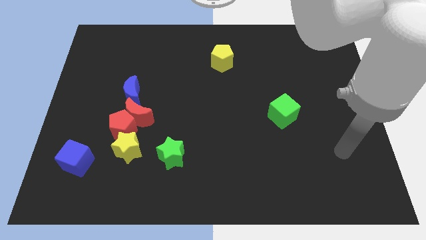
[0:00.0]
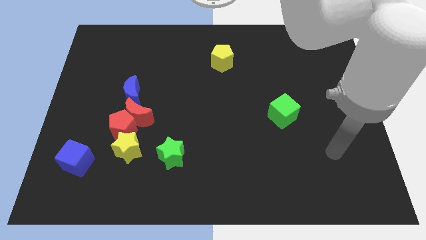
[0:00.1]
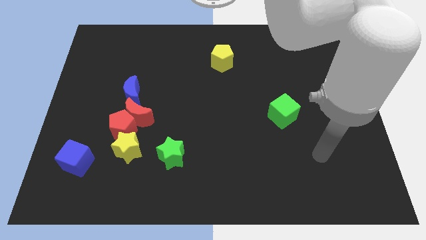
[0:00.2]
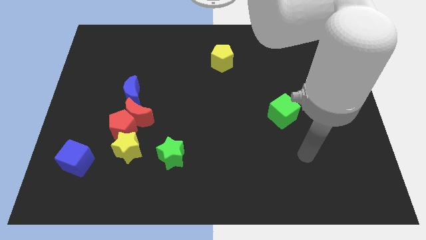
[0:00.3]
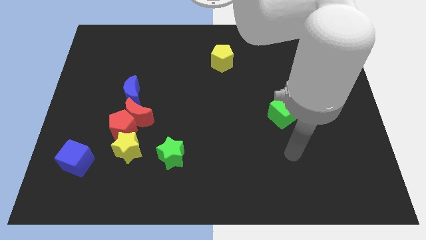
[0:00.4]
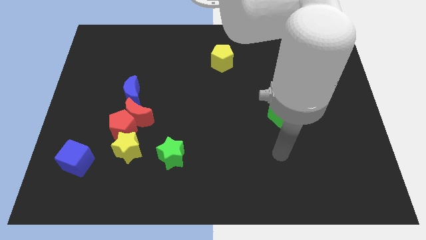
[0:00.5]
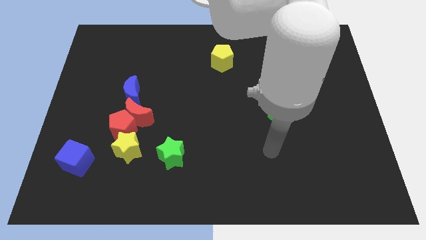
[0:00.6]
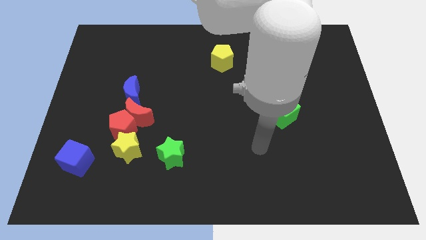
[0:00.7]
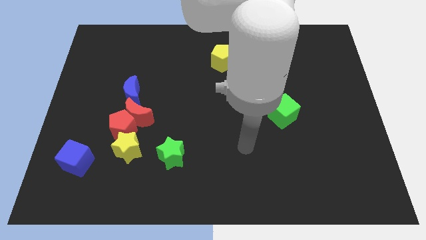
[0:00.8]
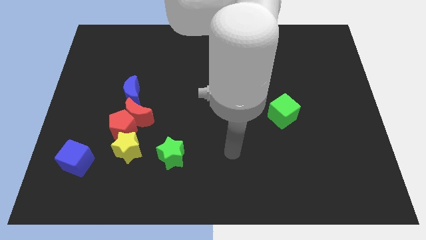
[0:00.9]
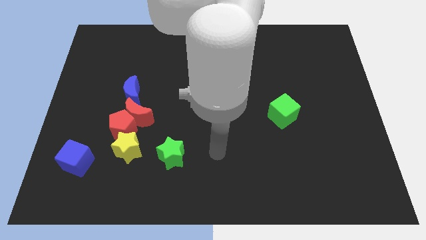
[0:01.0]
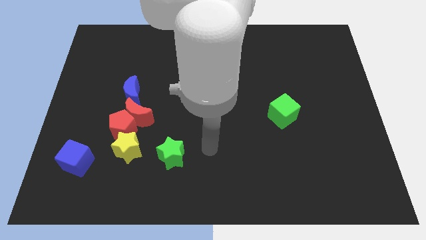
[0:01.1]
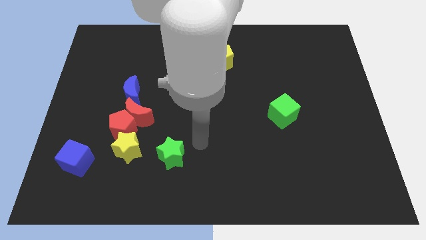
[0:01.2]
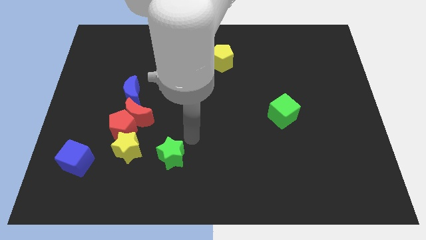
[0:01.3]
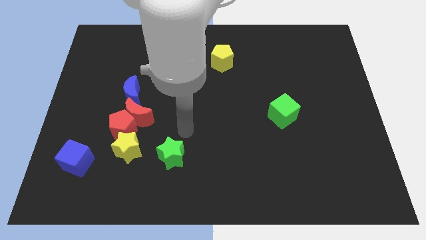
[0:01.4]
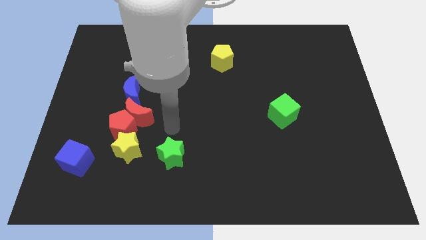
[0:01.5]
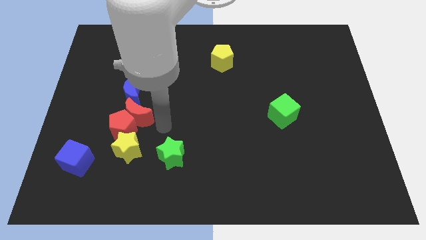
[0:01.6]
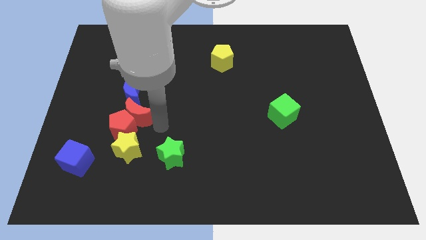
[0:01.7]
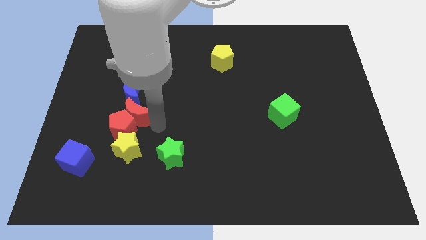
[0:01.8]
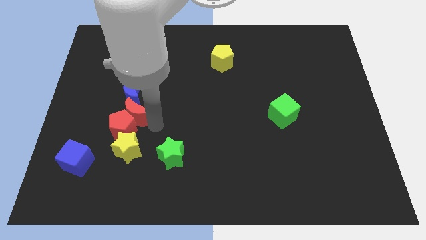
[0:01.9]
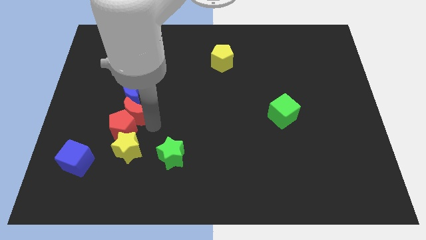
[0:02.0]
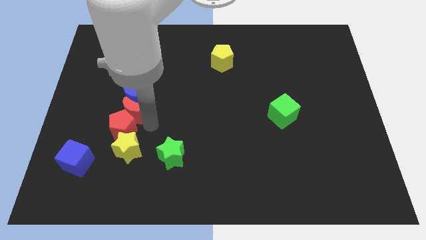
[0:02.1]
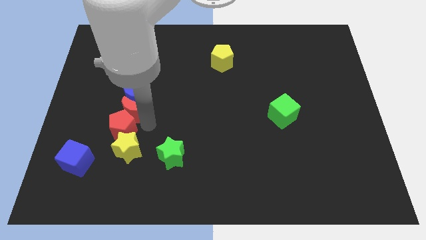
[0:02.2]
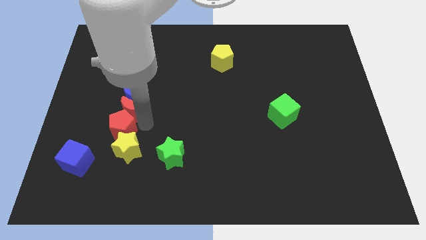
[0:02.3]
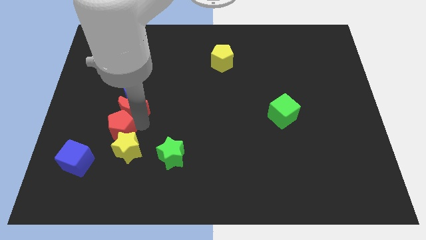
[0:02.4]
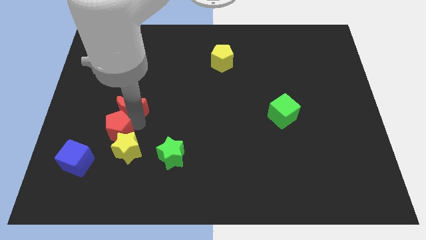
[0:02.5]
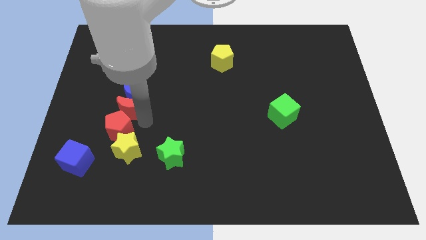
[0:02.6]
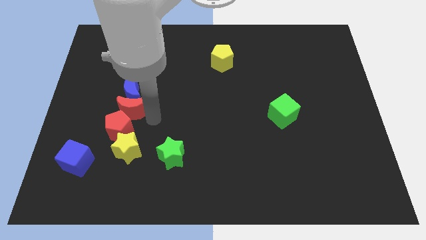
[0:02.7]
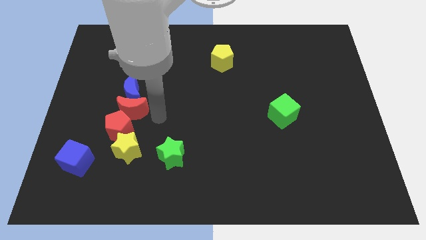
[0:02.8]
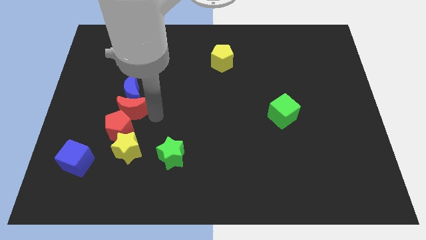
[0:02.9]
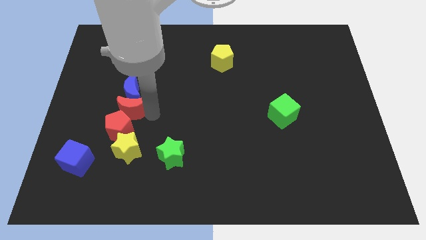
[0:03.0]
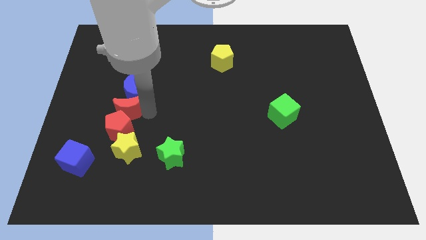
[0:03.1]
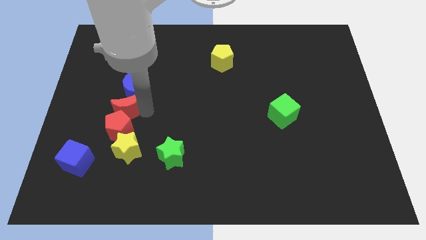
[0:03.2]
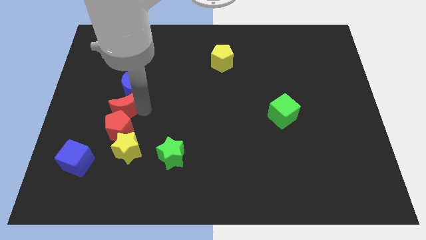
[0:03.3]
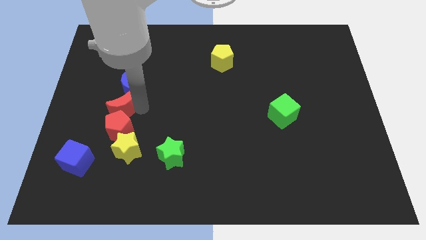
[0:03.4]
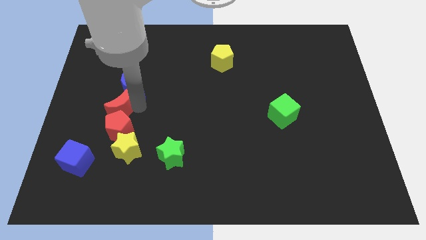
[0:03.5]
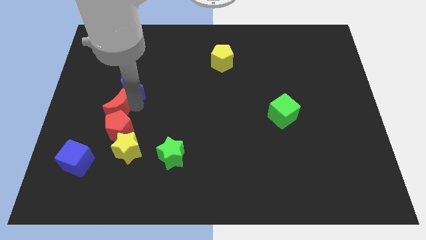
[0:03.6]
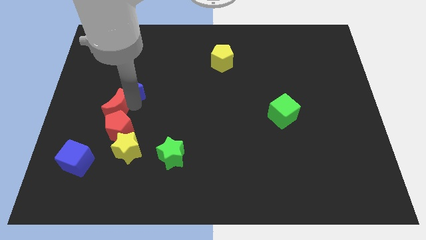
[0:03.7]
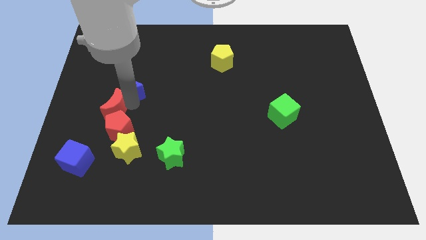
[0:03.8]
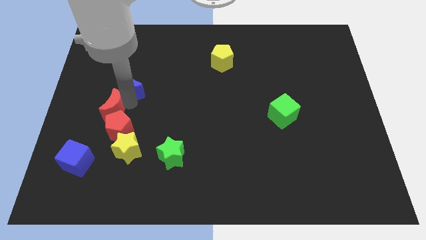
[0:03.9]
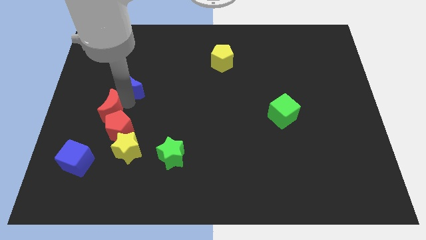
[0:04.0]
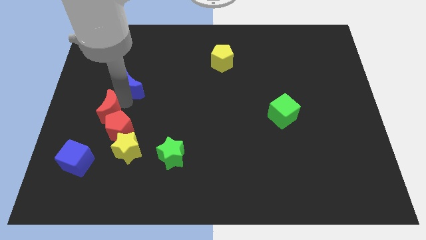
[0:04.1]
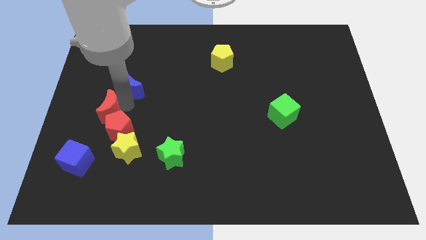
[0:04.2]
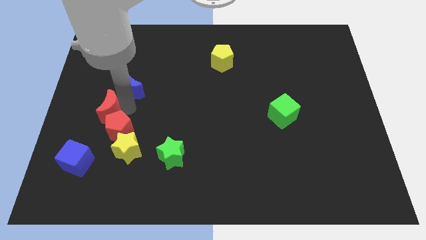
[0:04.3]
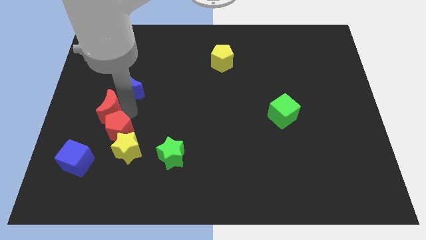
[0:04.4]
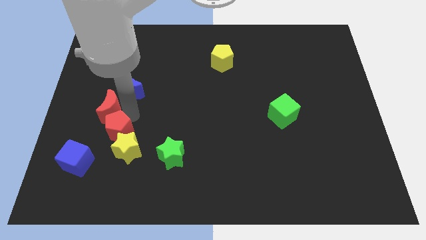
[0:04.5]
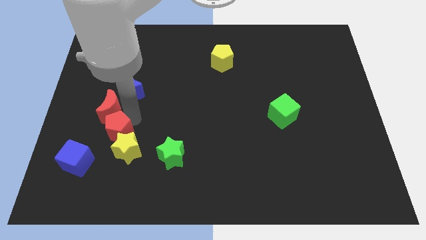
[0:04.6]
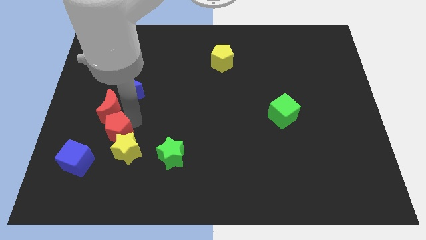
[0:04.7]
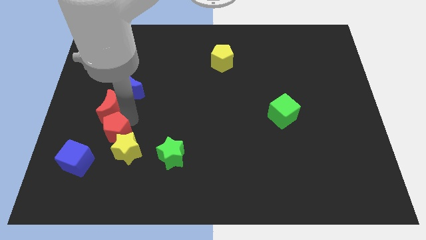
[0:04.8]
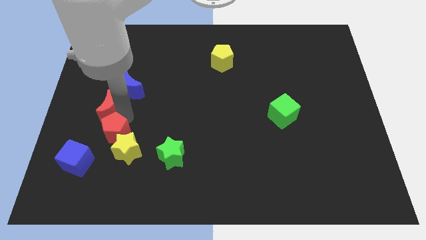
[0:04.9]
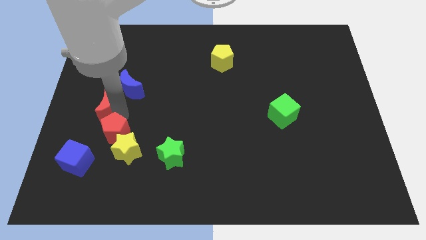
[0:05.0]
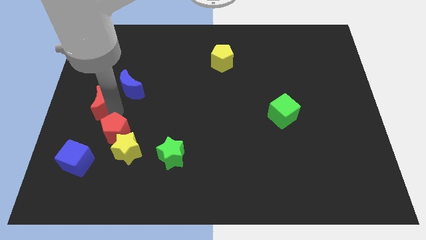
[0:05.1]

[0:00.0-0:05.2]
push the red moon to the left side of the board

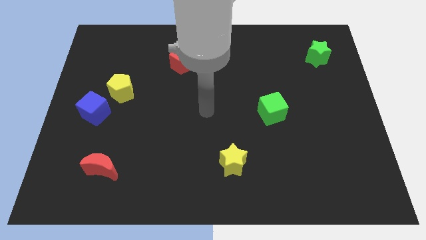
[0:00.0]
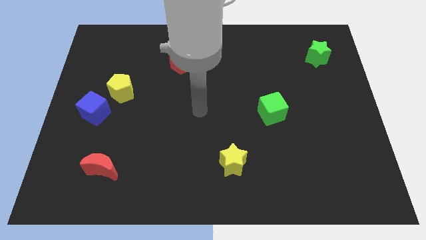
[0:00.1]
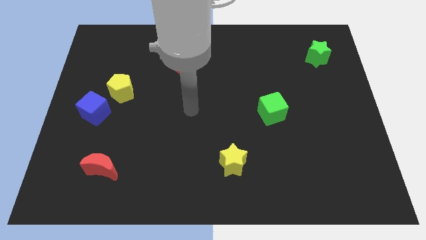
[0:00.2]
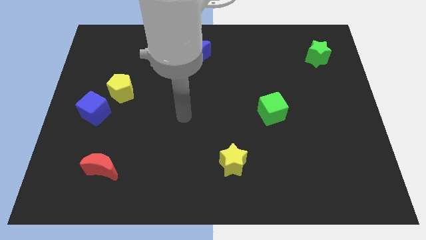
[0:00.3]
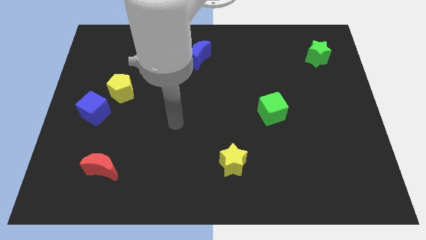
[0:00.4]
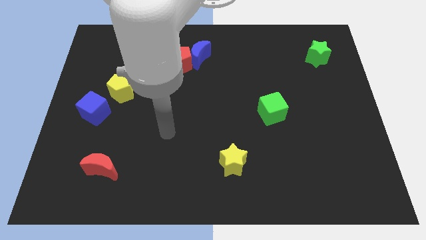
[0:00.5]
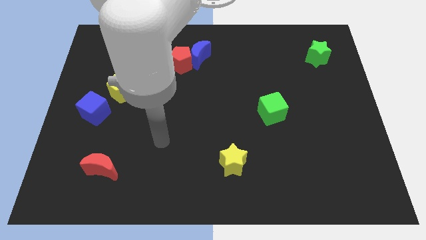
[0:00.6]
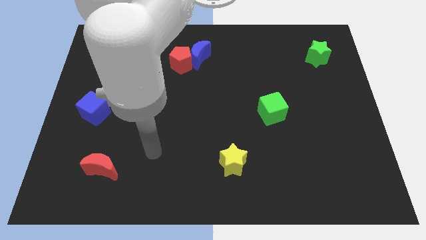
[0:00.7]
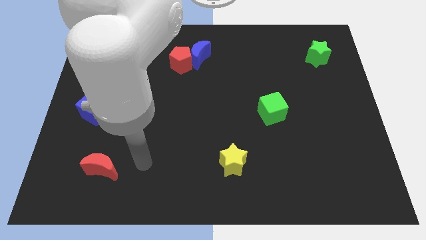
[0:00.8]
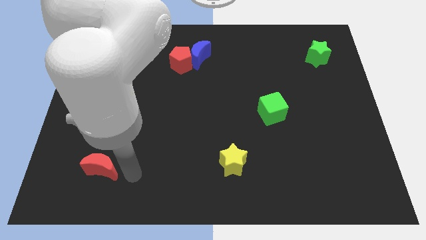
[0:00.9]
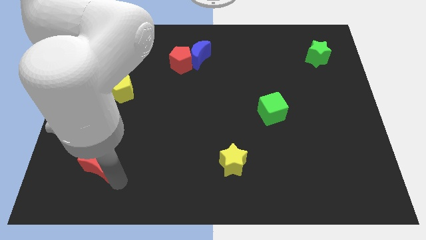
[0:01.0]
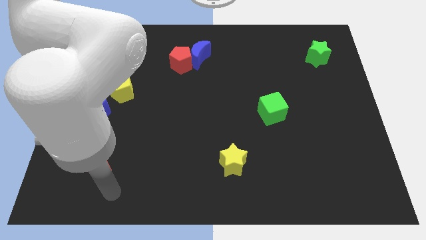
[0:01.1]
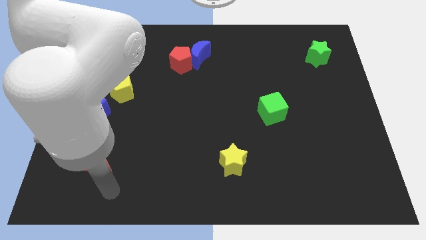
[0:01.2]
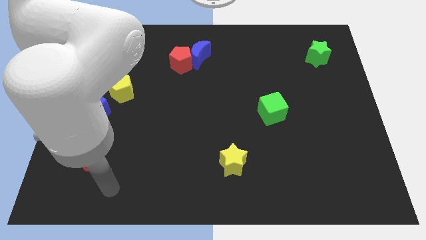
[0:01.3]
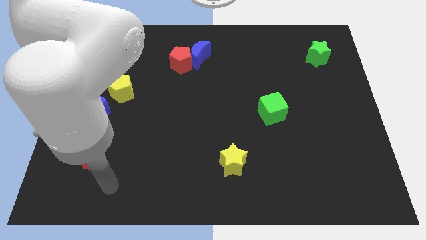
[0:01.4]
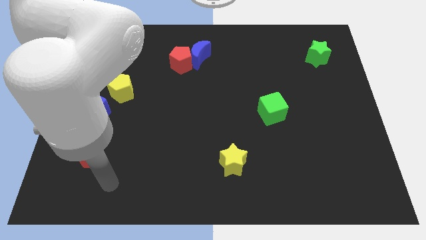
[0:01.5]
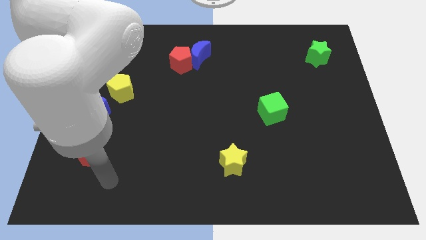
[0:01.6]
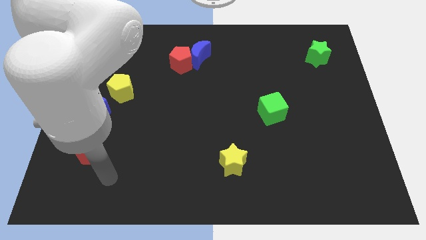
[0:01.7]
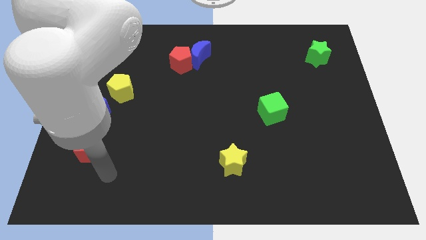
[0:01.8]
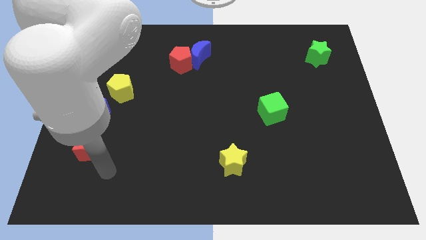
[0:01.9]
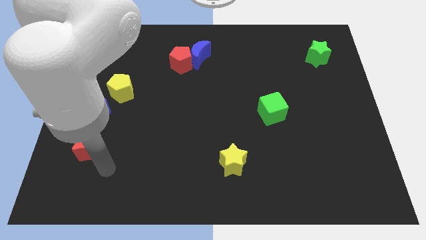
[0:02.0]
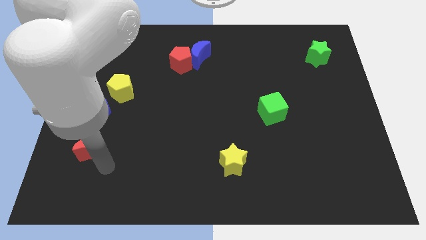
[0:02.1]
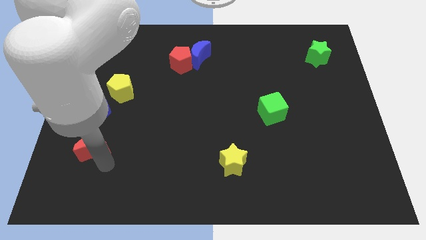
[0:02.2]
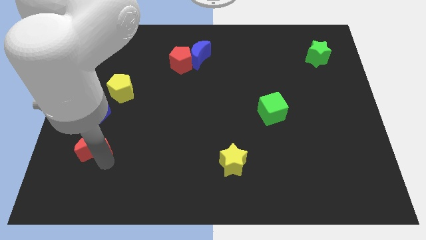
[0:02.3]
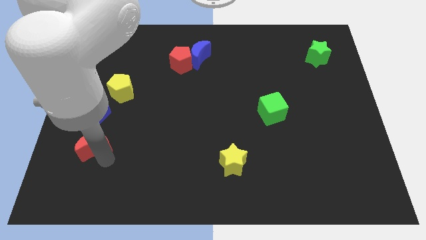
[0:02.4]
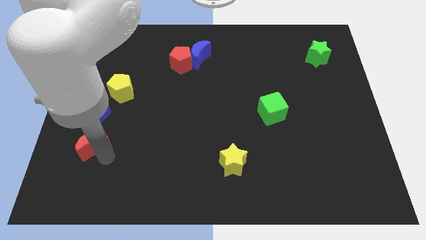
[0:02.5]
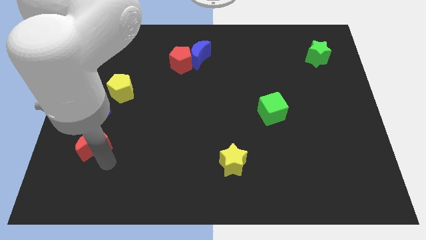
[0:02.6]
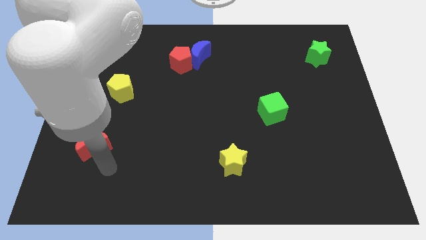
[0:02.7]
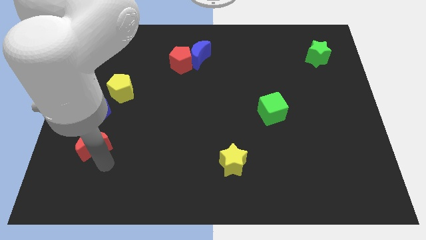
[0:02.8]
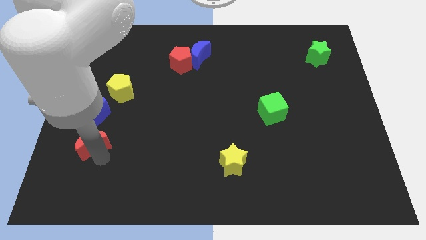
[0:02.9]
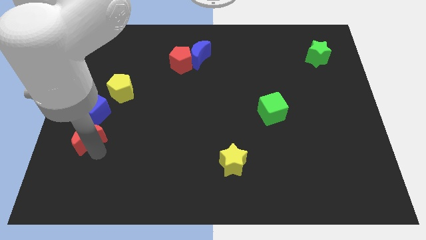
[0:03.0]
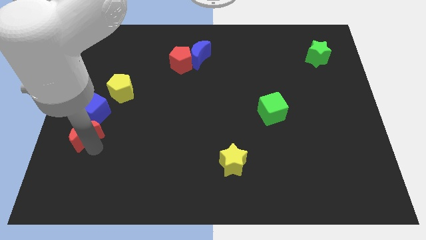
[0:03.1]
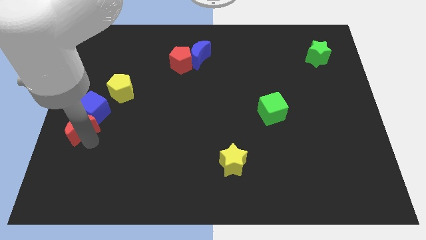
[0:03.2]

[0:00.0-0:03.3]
slide the red moon to the left side
